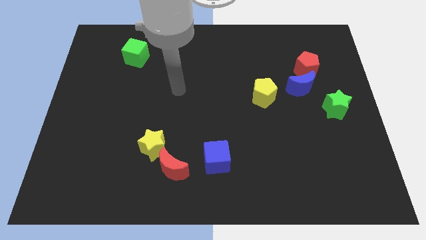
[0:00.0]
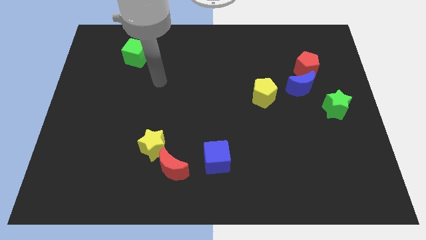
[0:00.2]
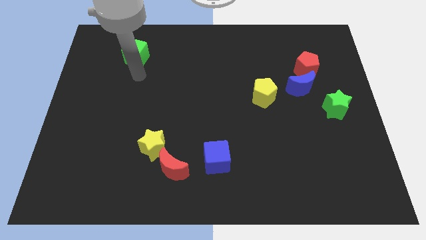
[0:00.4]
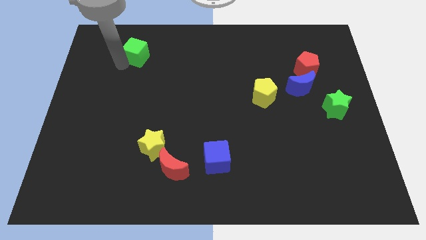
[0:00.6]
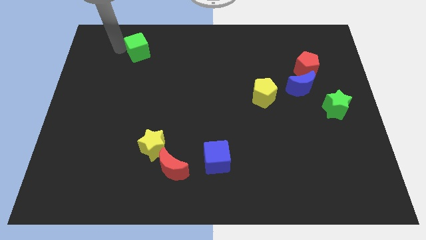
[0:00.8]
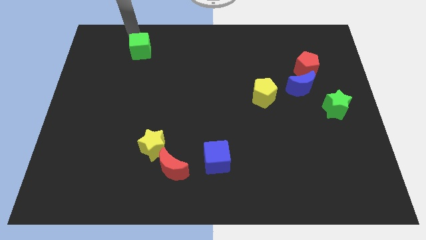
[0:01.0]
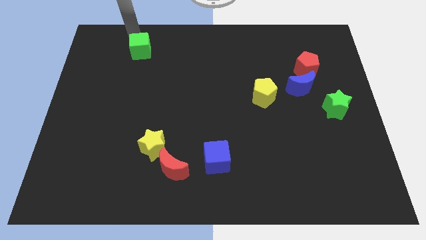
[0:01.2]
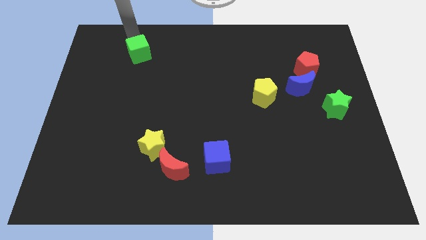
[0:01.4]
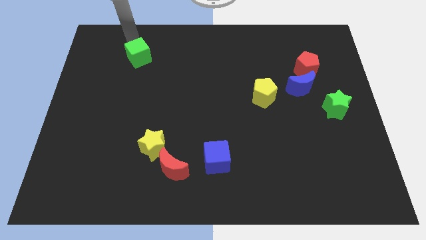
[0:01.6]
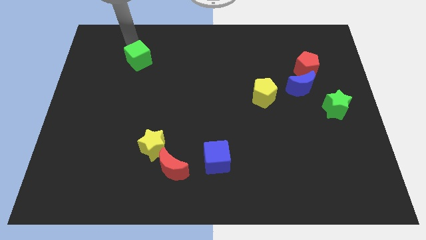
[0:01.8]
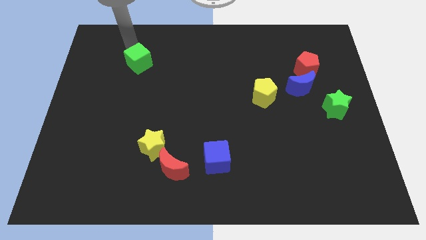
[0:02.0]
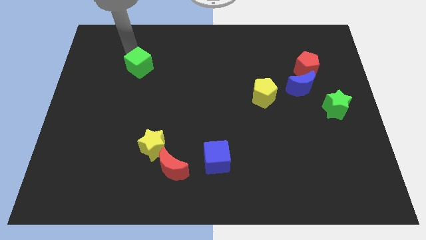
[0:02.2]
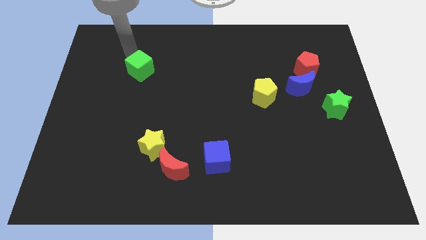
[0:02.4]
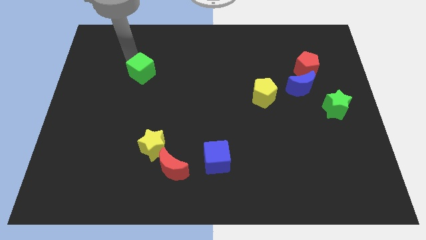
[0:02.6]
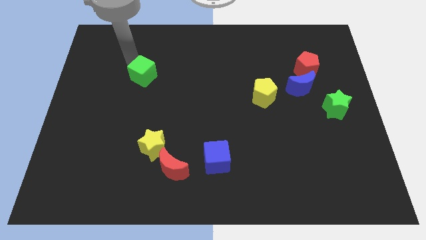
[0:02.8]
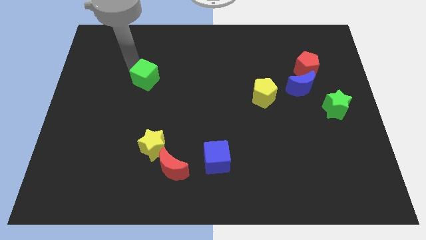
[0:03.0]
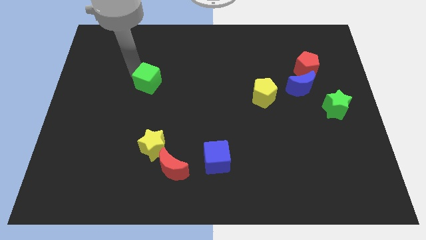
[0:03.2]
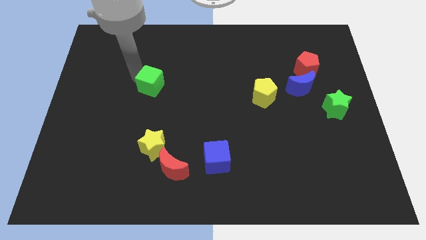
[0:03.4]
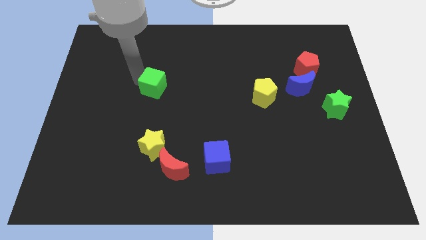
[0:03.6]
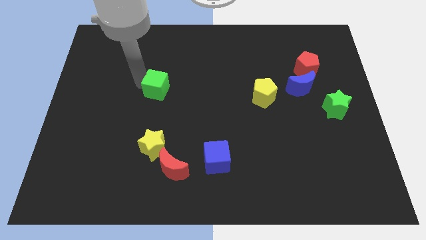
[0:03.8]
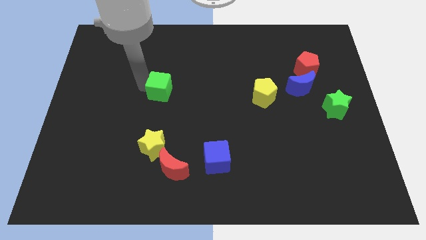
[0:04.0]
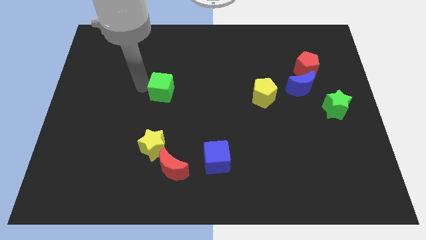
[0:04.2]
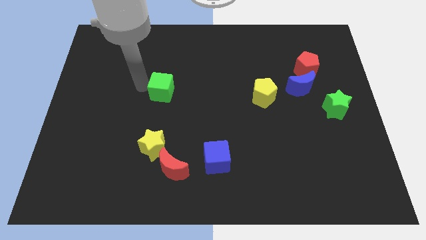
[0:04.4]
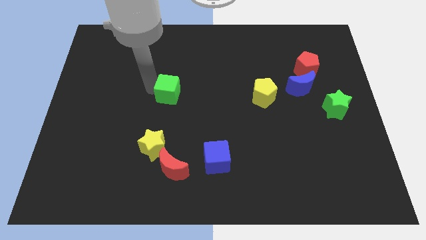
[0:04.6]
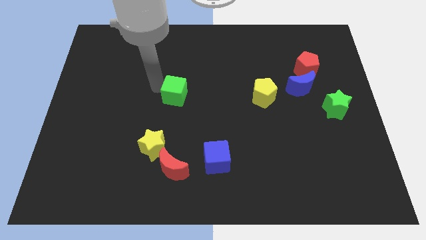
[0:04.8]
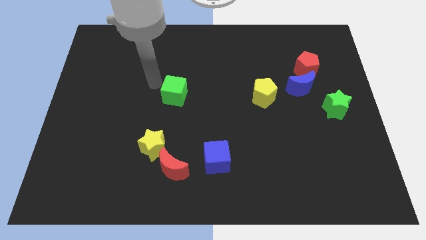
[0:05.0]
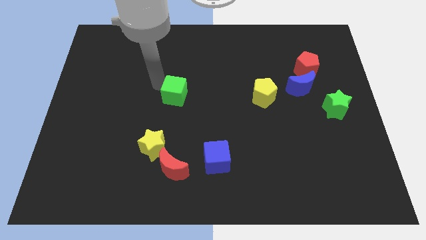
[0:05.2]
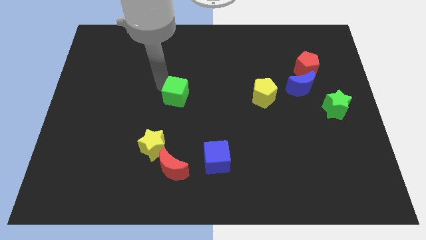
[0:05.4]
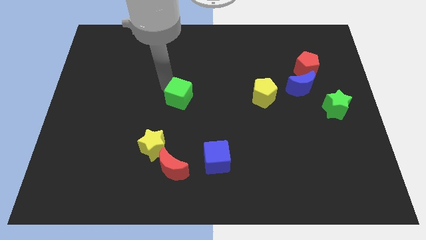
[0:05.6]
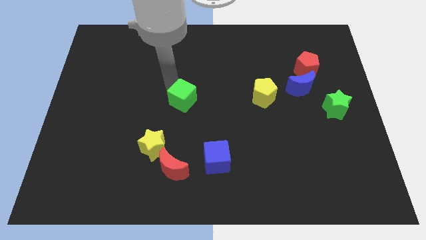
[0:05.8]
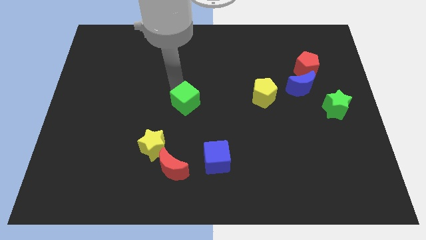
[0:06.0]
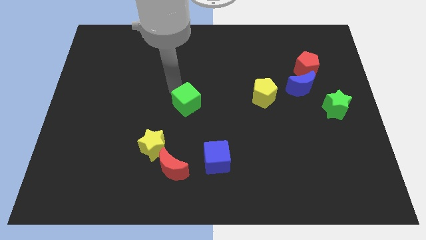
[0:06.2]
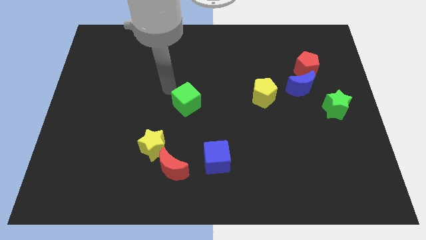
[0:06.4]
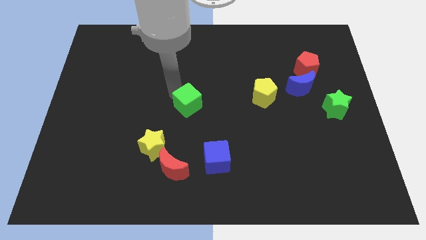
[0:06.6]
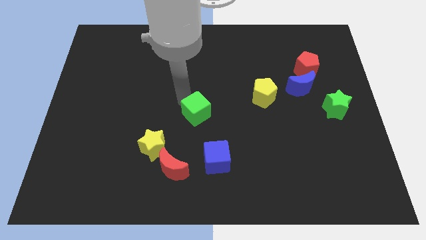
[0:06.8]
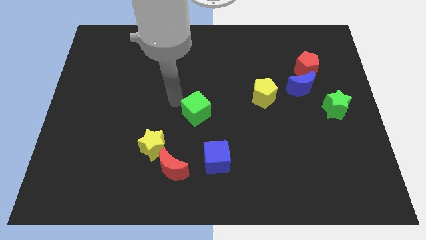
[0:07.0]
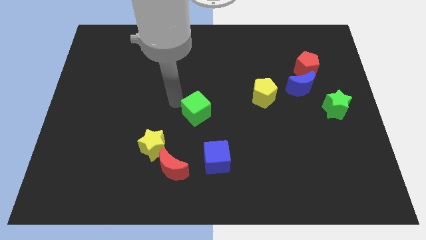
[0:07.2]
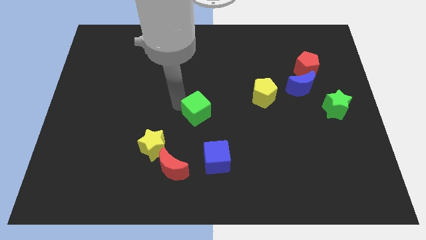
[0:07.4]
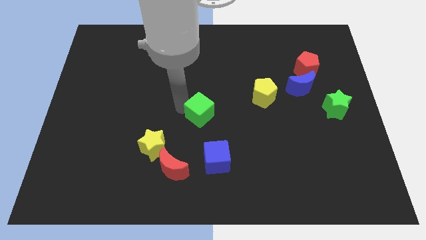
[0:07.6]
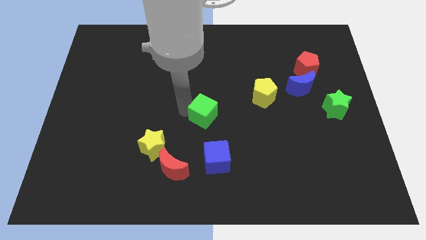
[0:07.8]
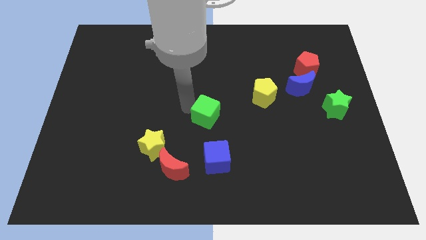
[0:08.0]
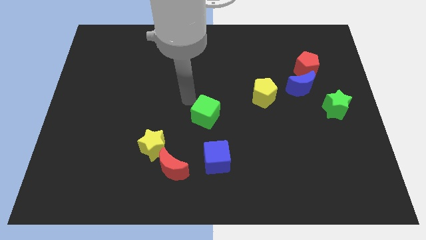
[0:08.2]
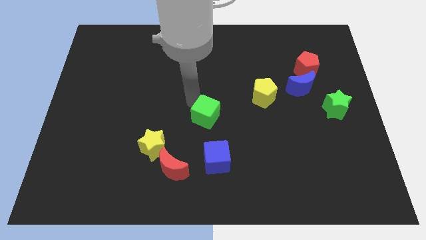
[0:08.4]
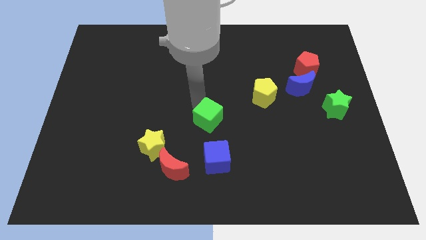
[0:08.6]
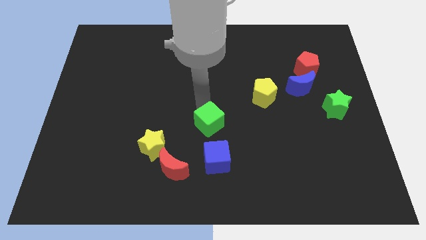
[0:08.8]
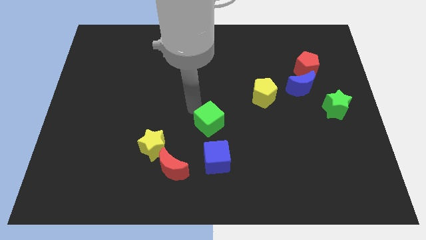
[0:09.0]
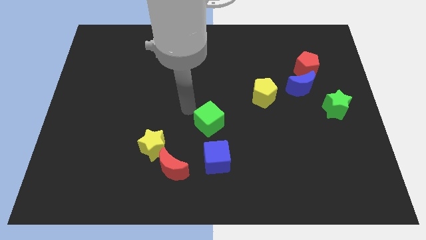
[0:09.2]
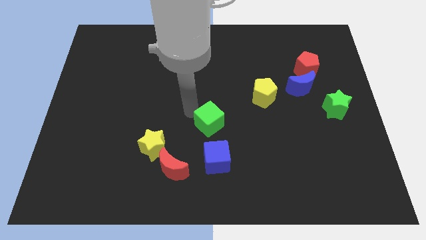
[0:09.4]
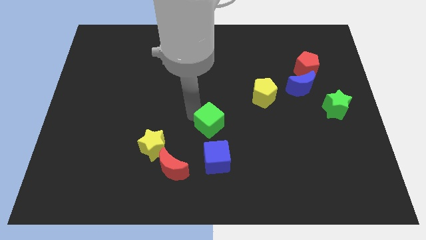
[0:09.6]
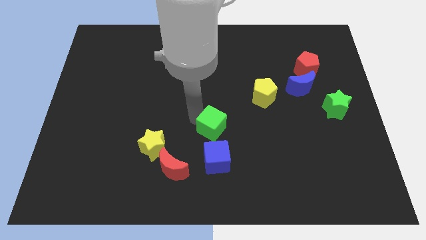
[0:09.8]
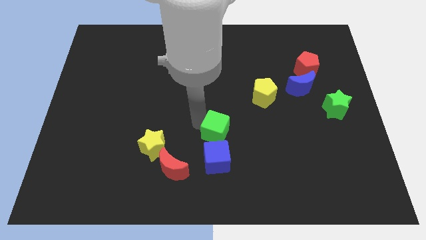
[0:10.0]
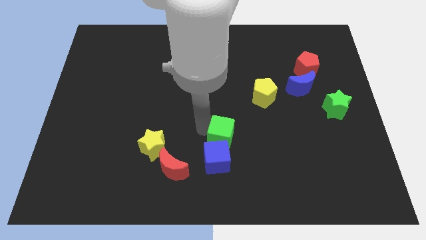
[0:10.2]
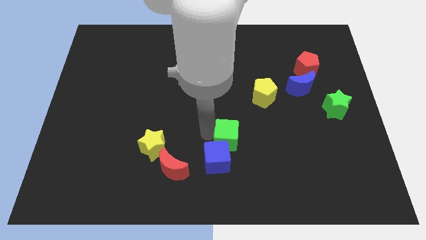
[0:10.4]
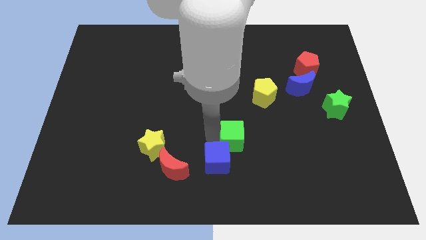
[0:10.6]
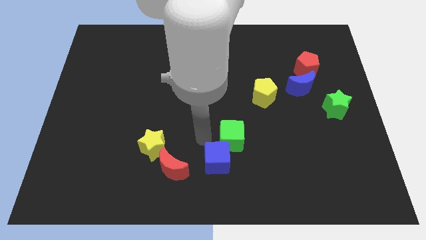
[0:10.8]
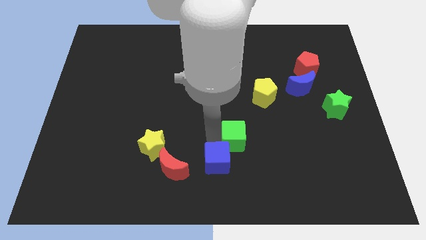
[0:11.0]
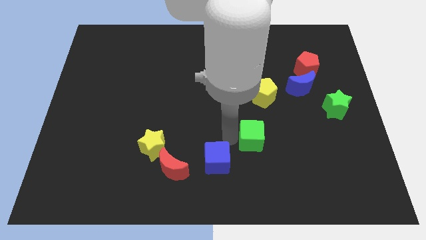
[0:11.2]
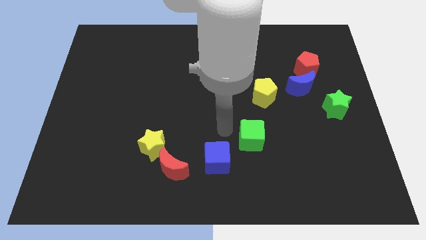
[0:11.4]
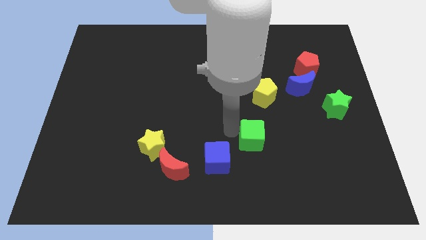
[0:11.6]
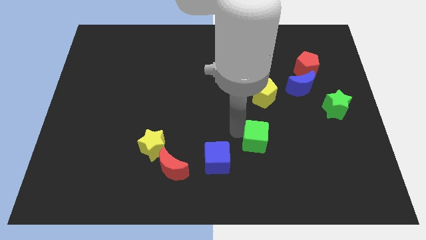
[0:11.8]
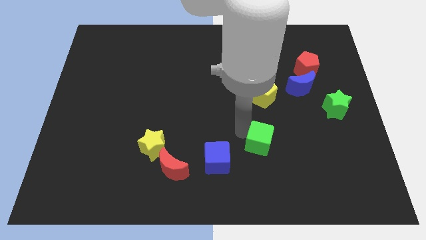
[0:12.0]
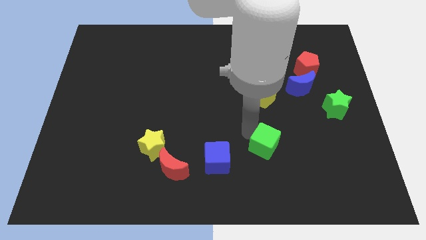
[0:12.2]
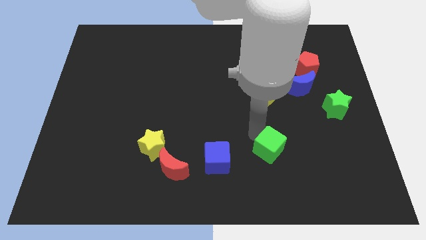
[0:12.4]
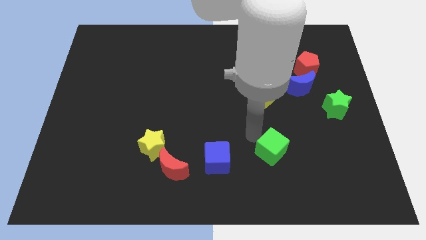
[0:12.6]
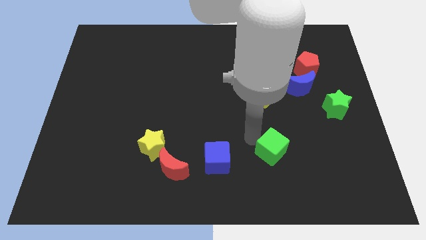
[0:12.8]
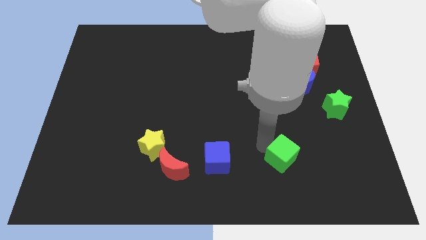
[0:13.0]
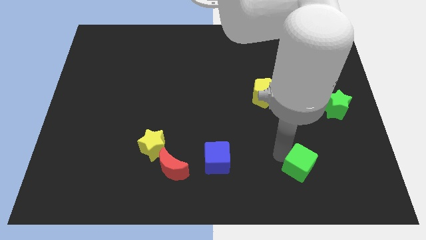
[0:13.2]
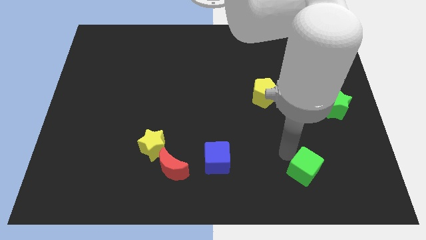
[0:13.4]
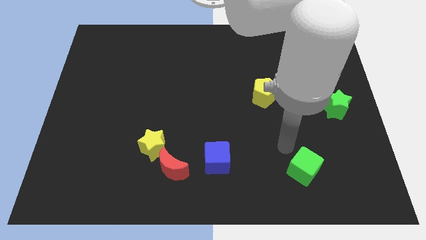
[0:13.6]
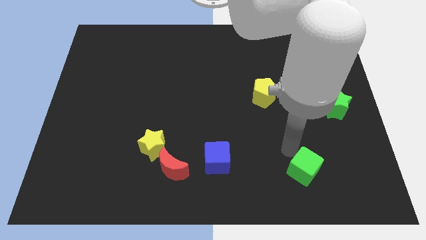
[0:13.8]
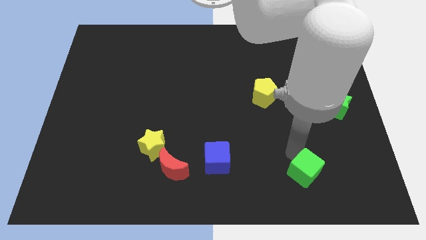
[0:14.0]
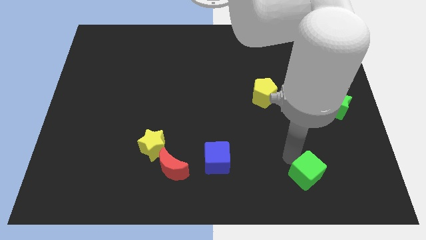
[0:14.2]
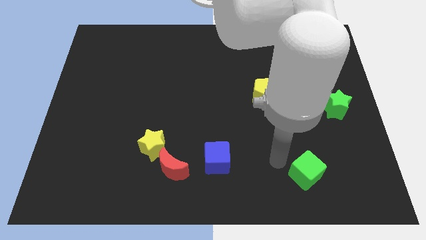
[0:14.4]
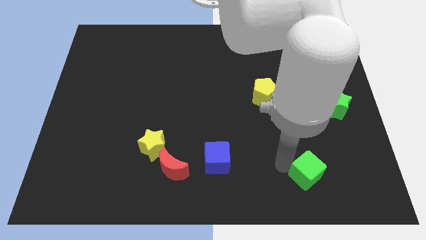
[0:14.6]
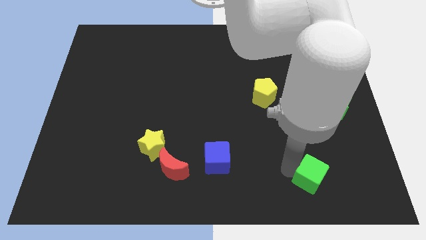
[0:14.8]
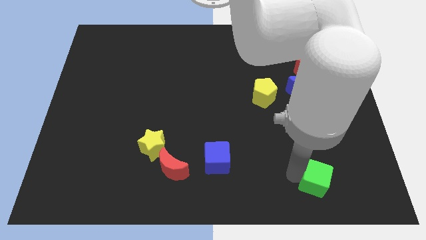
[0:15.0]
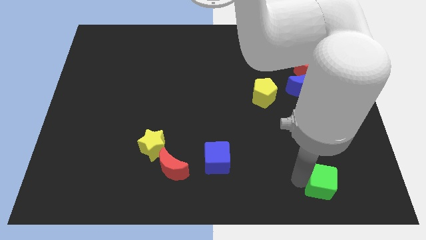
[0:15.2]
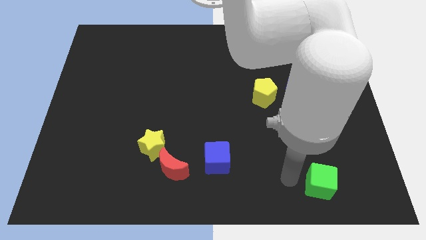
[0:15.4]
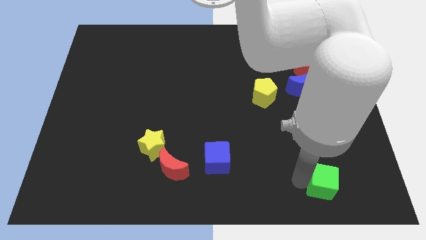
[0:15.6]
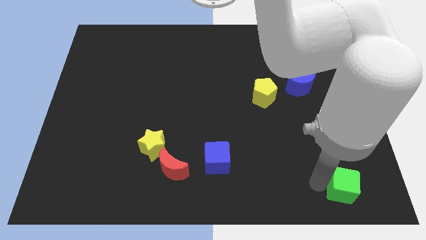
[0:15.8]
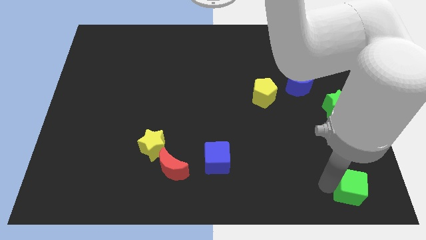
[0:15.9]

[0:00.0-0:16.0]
put the green cube to the lower right corner
